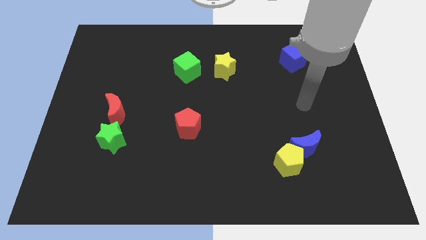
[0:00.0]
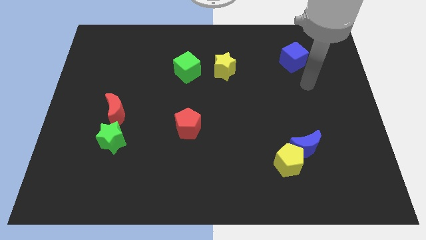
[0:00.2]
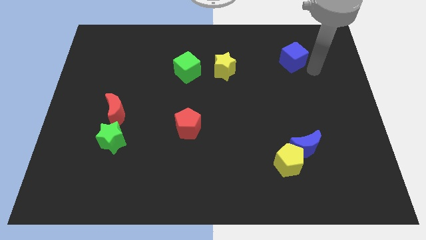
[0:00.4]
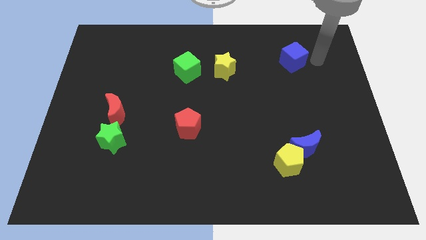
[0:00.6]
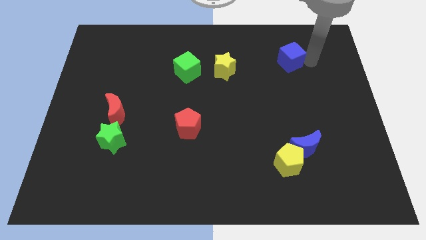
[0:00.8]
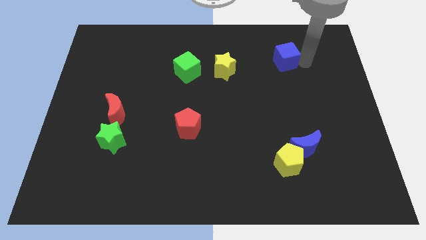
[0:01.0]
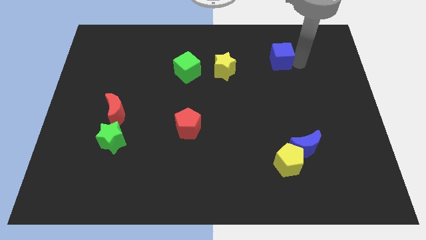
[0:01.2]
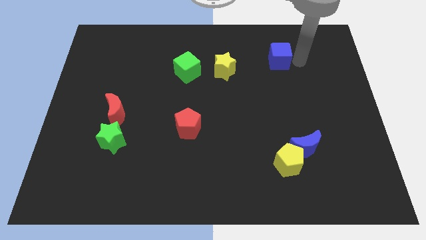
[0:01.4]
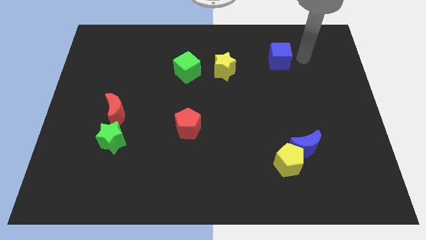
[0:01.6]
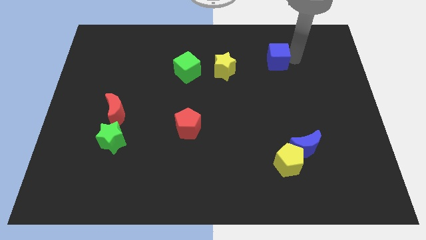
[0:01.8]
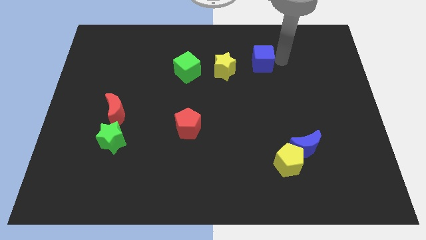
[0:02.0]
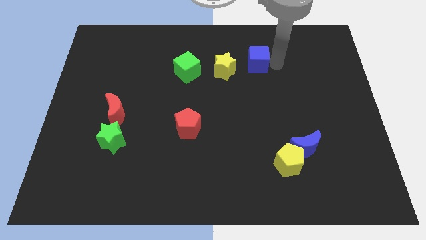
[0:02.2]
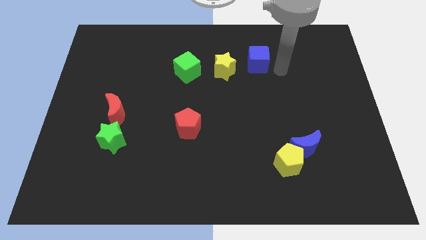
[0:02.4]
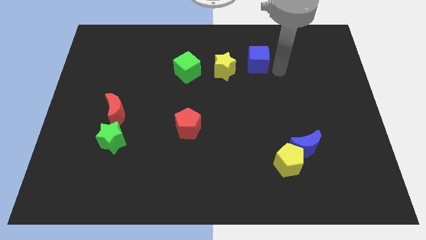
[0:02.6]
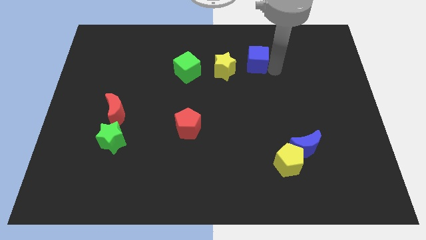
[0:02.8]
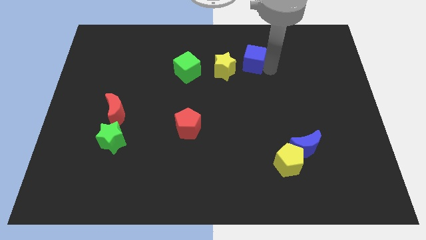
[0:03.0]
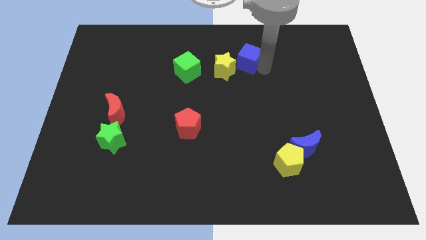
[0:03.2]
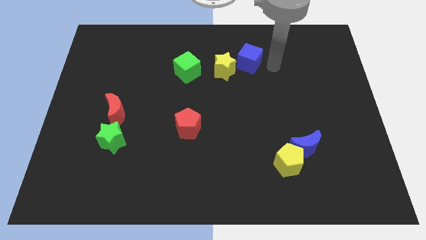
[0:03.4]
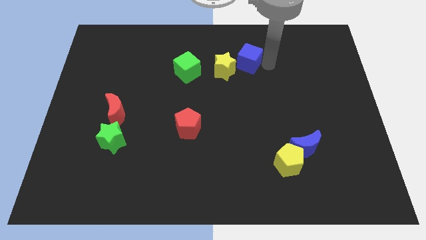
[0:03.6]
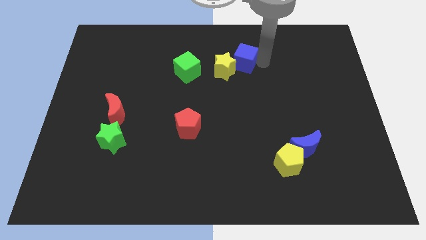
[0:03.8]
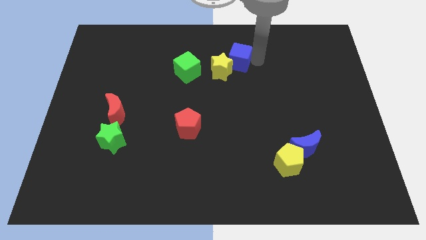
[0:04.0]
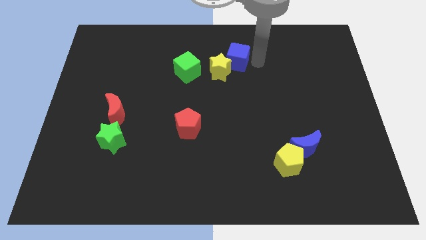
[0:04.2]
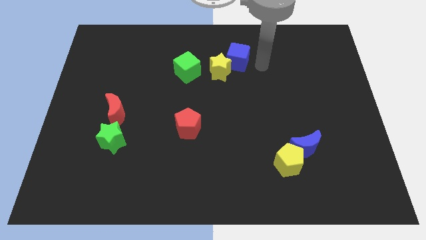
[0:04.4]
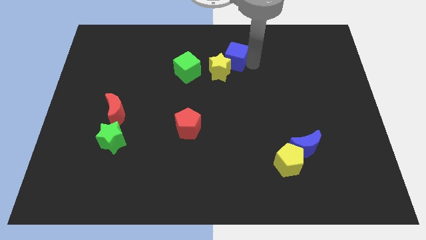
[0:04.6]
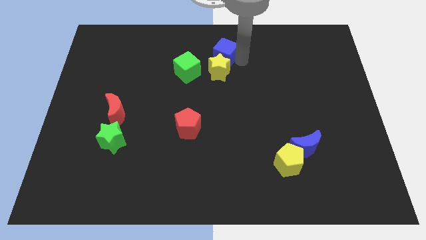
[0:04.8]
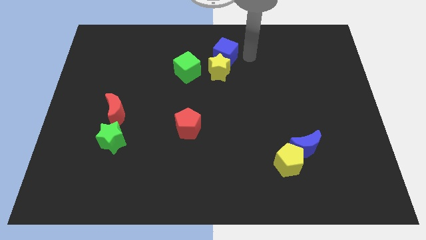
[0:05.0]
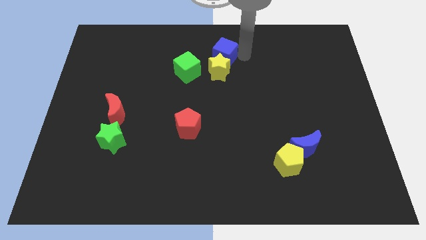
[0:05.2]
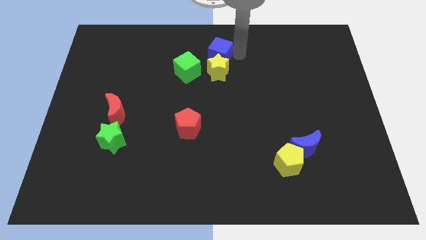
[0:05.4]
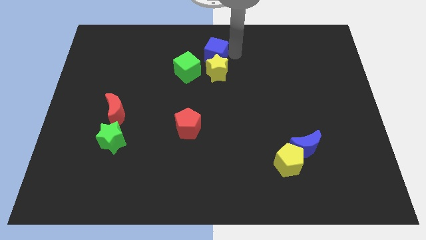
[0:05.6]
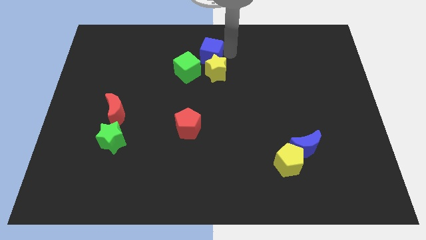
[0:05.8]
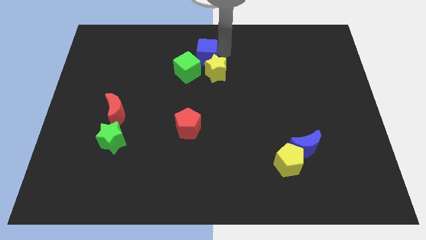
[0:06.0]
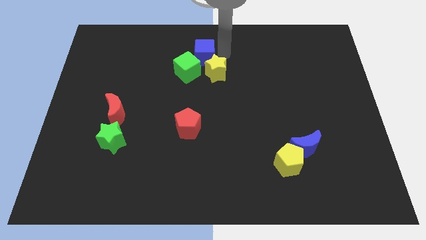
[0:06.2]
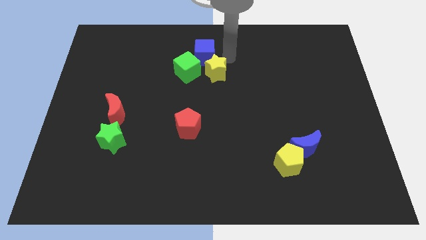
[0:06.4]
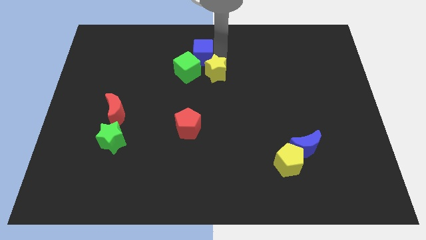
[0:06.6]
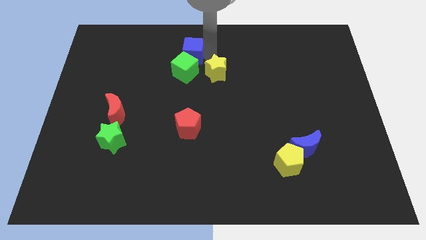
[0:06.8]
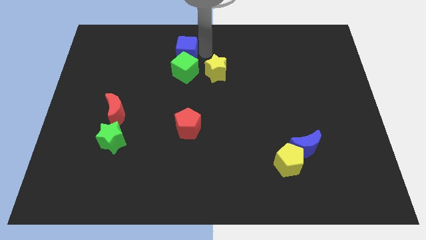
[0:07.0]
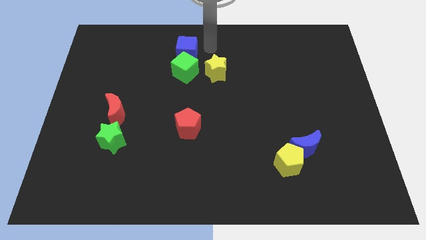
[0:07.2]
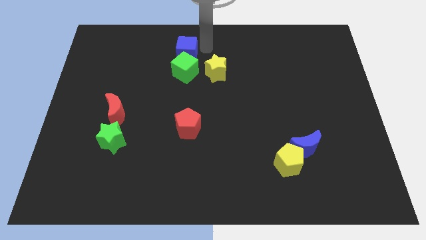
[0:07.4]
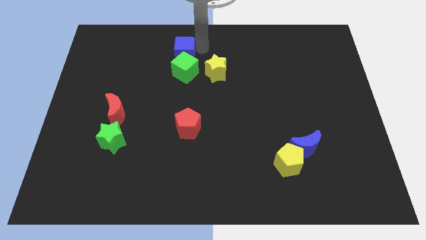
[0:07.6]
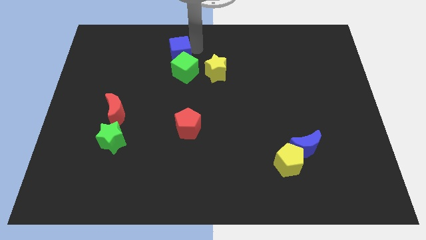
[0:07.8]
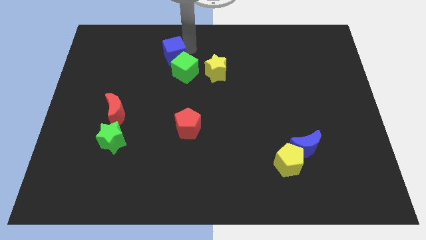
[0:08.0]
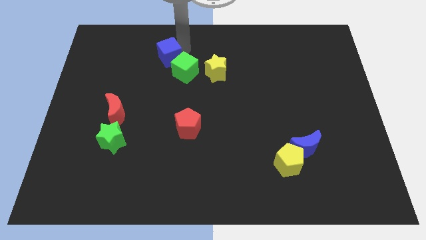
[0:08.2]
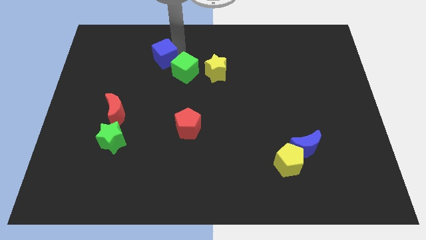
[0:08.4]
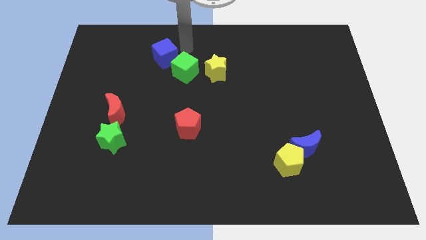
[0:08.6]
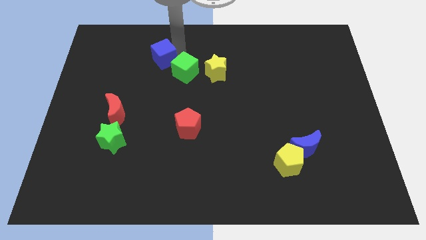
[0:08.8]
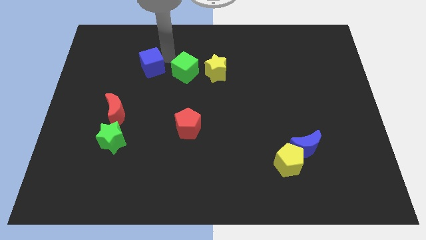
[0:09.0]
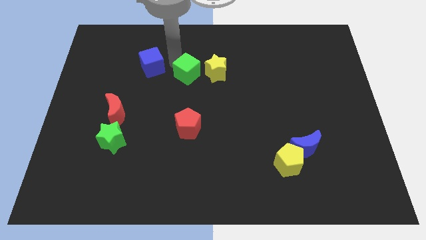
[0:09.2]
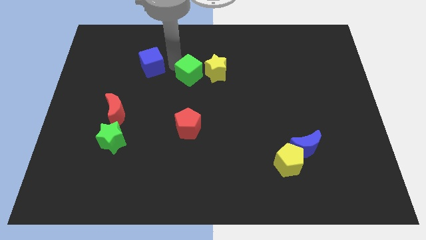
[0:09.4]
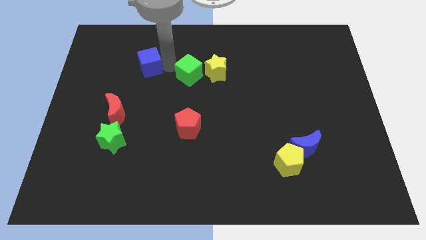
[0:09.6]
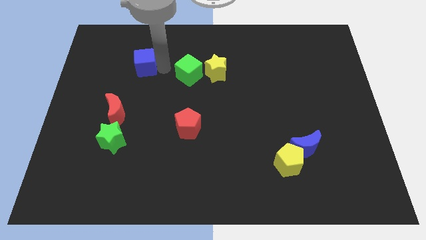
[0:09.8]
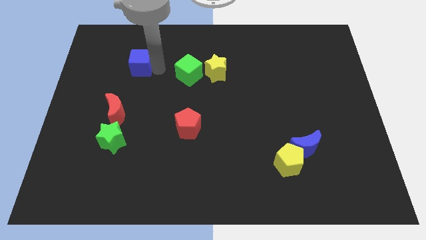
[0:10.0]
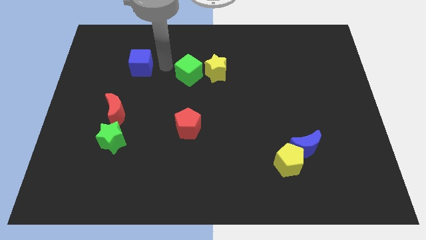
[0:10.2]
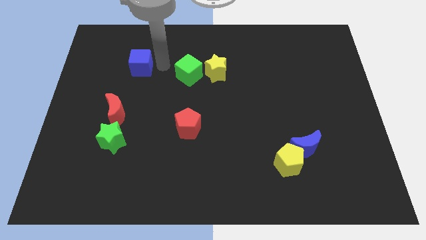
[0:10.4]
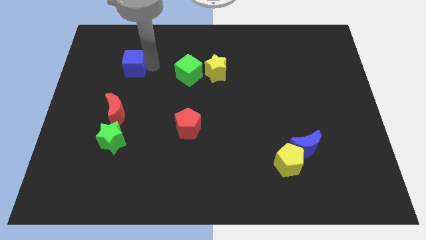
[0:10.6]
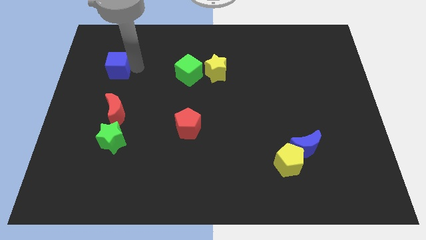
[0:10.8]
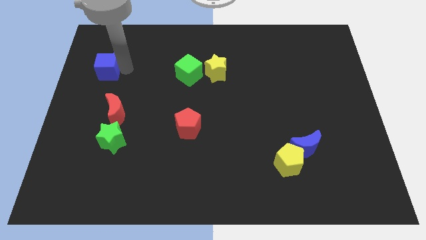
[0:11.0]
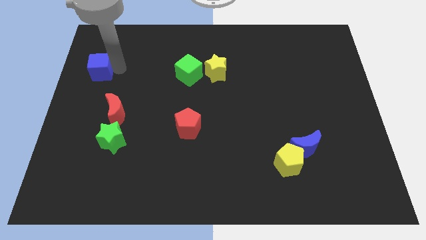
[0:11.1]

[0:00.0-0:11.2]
put the blue cube to the center left
